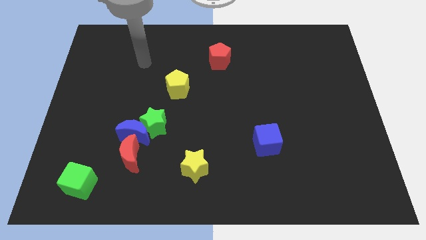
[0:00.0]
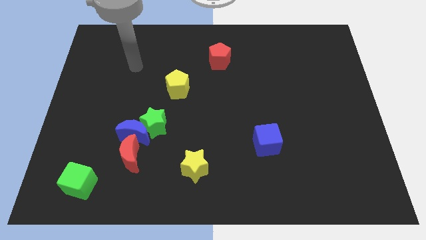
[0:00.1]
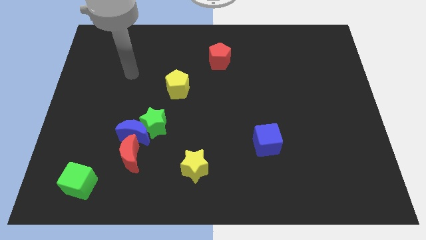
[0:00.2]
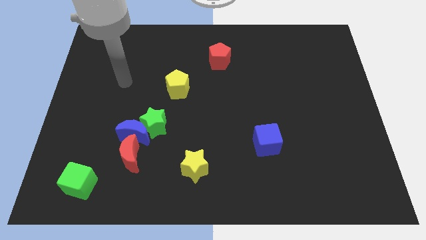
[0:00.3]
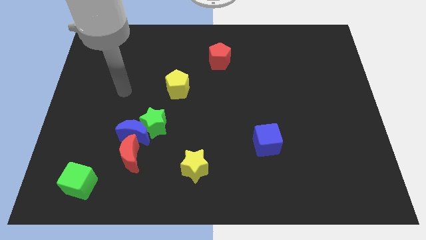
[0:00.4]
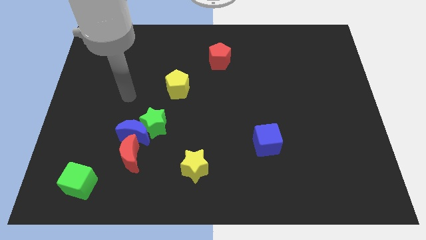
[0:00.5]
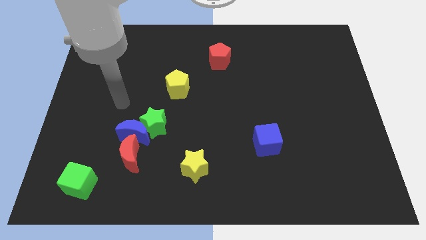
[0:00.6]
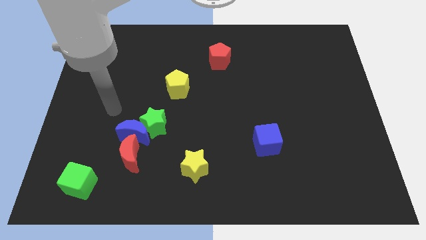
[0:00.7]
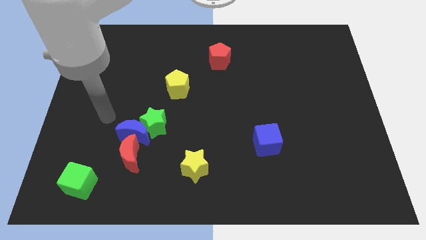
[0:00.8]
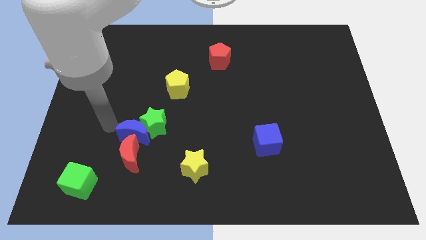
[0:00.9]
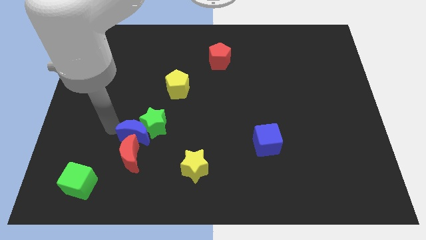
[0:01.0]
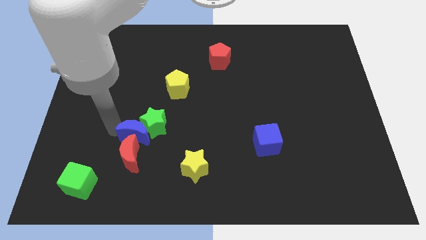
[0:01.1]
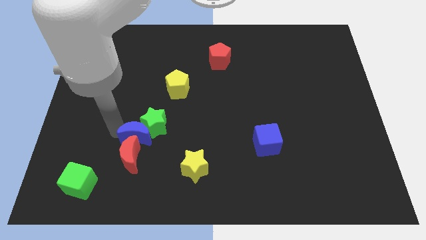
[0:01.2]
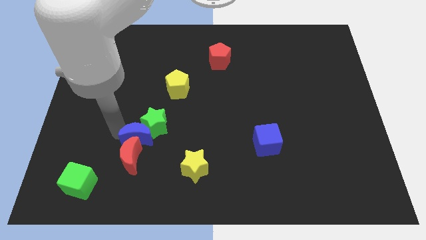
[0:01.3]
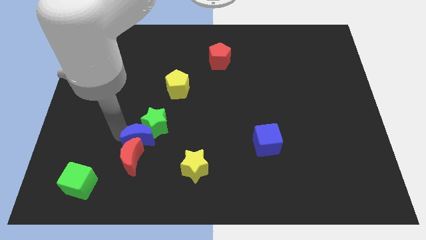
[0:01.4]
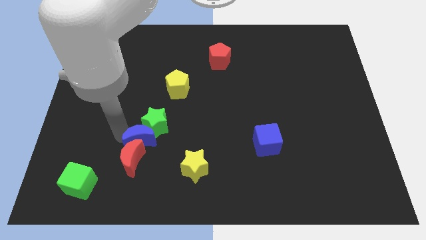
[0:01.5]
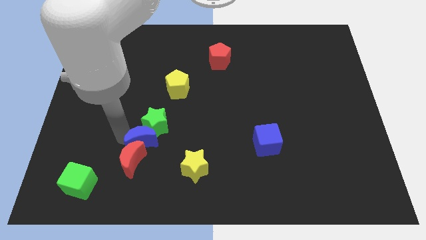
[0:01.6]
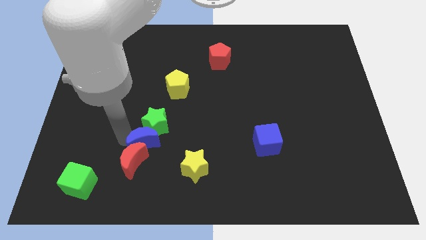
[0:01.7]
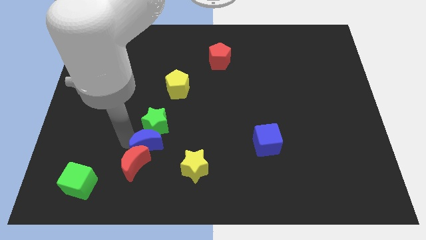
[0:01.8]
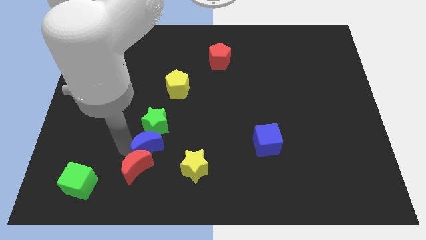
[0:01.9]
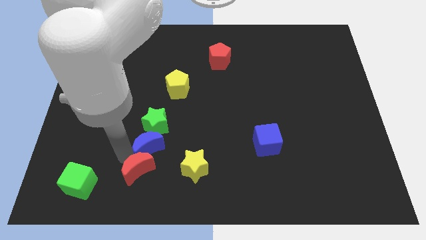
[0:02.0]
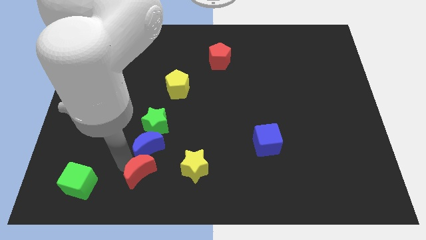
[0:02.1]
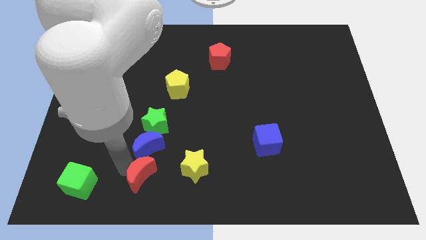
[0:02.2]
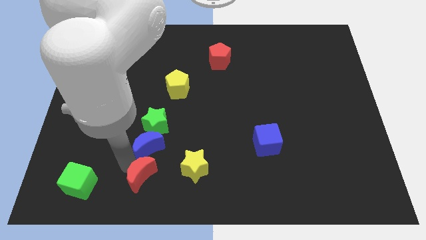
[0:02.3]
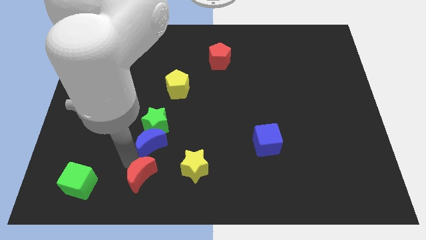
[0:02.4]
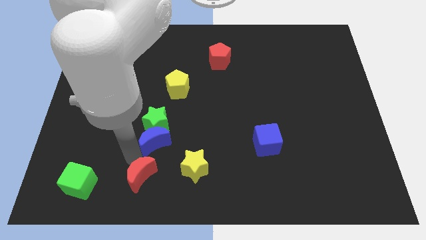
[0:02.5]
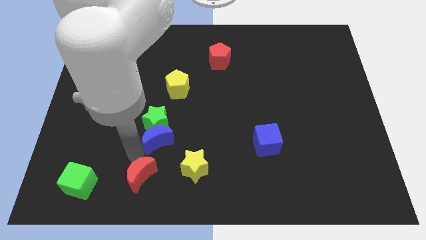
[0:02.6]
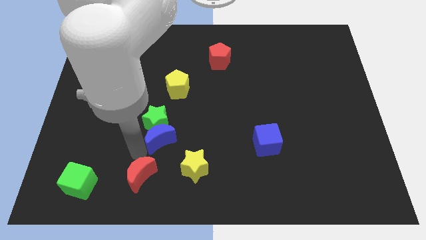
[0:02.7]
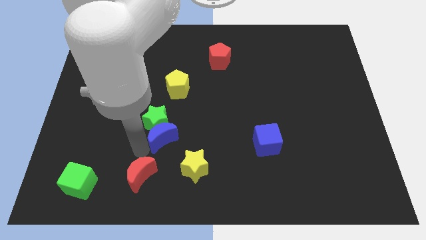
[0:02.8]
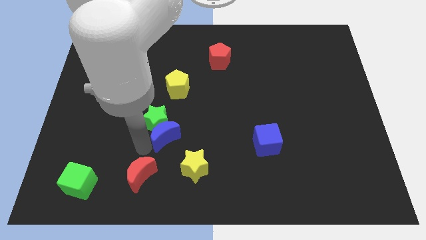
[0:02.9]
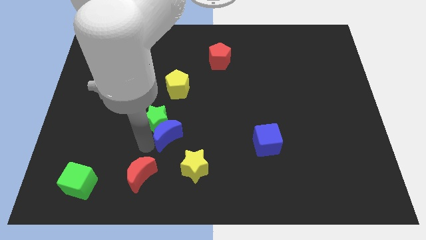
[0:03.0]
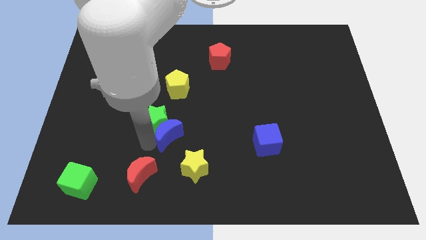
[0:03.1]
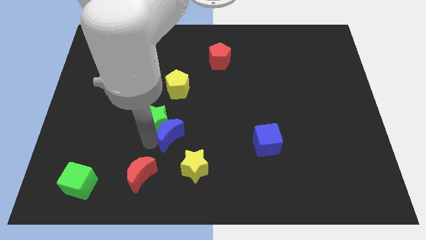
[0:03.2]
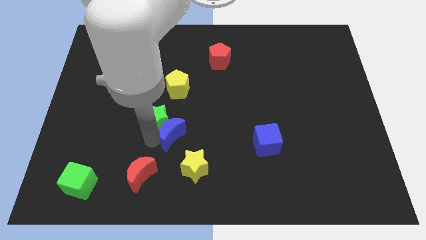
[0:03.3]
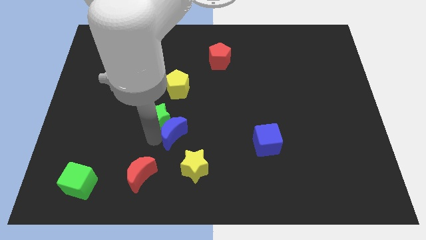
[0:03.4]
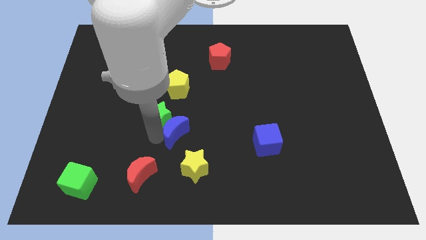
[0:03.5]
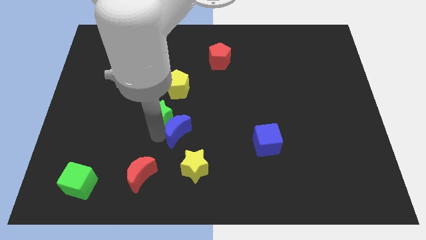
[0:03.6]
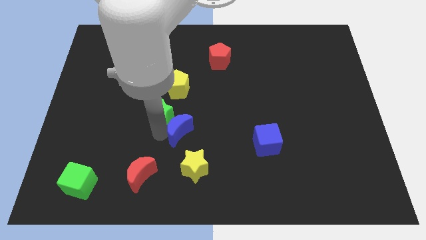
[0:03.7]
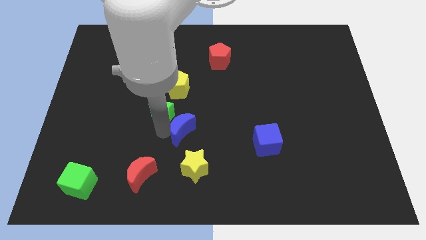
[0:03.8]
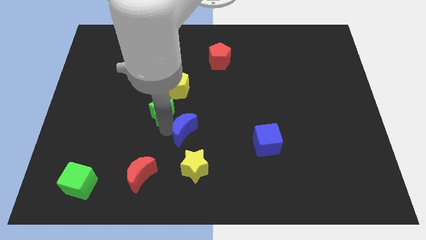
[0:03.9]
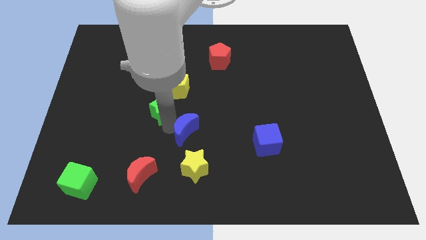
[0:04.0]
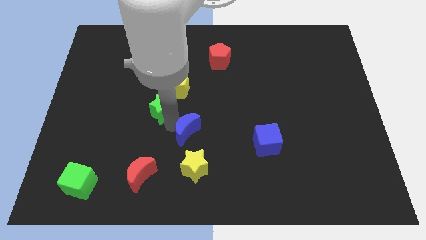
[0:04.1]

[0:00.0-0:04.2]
push the blue moon a little bit up and to the right

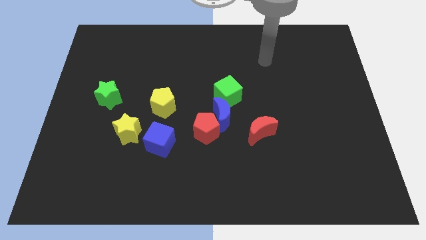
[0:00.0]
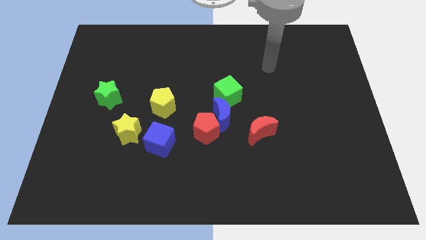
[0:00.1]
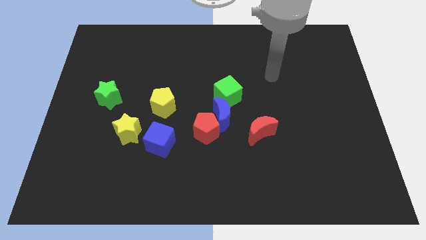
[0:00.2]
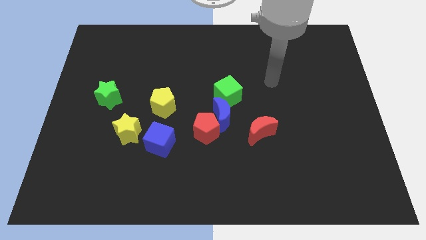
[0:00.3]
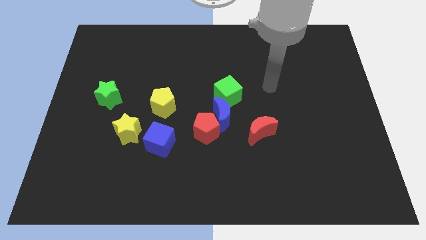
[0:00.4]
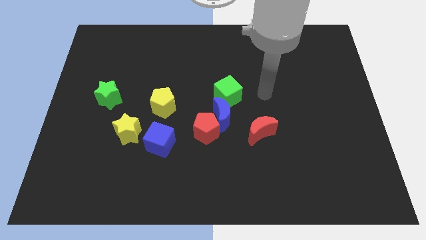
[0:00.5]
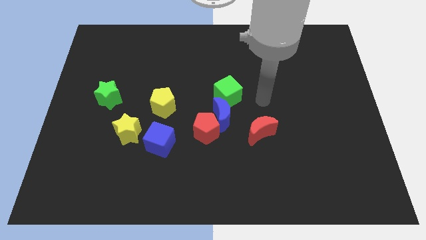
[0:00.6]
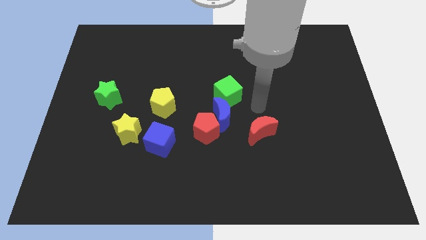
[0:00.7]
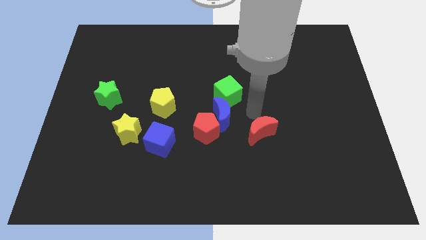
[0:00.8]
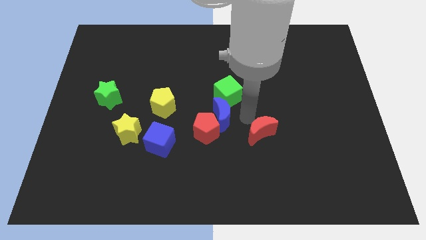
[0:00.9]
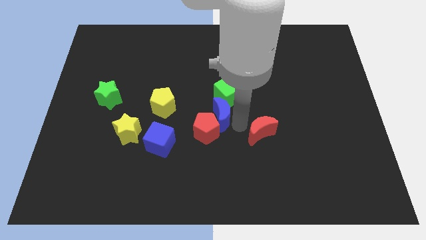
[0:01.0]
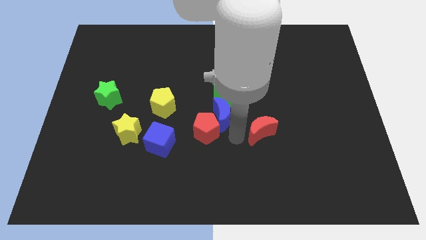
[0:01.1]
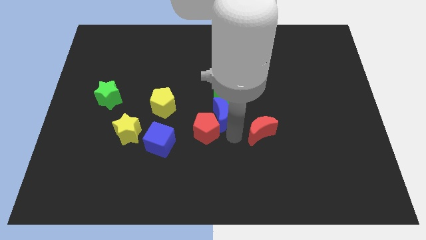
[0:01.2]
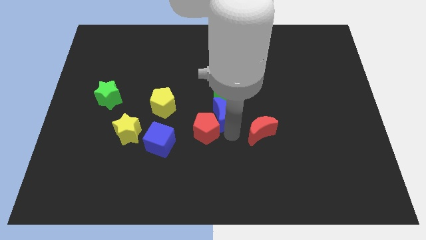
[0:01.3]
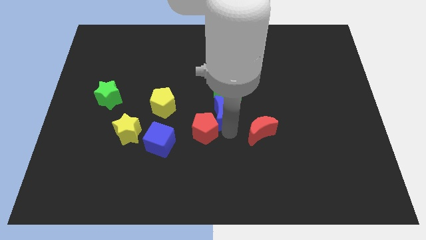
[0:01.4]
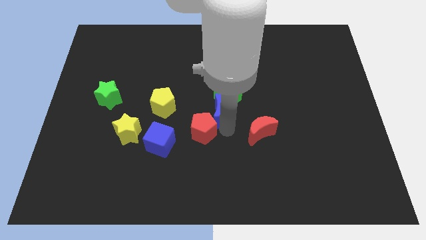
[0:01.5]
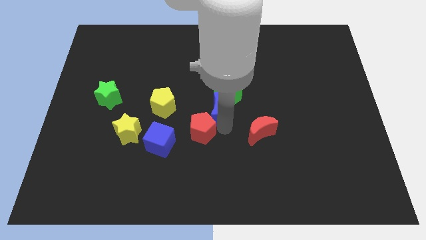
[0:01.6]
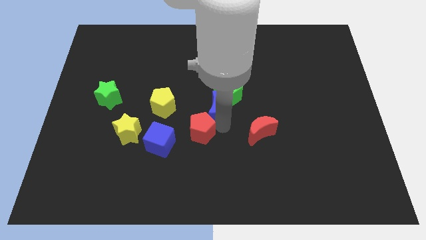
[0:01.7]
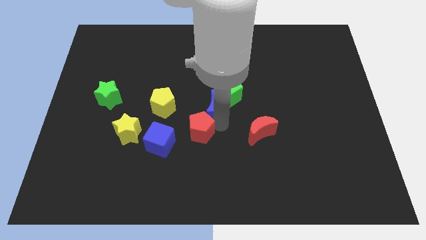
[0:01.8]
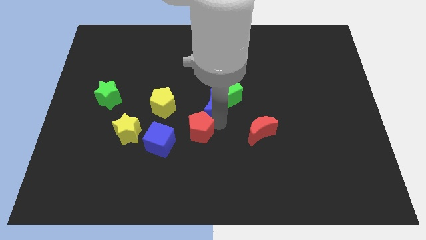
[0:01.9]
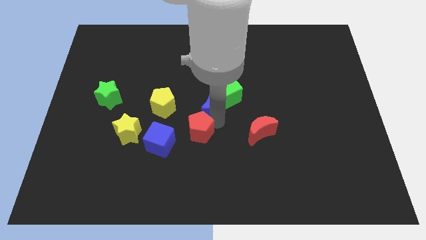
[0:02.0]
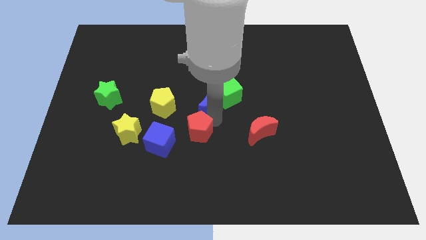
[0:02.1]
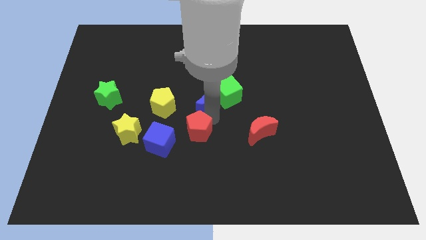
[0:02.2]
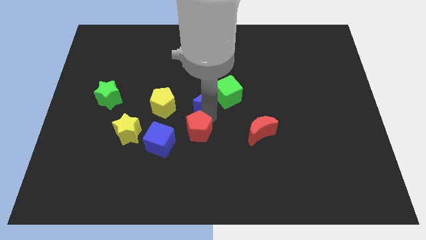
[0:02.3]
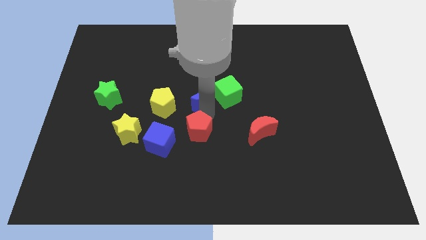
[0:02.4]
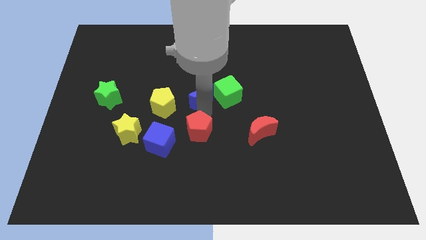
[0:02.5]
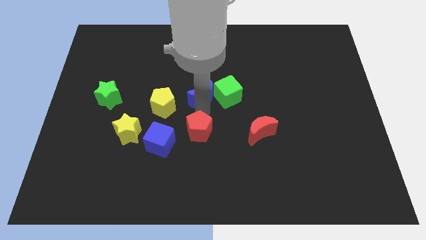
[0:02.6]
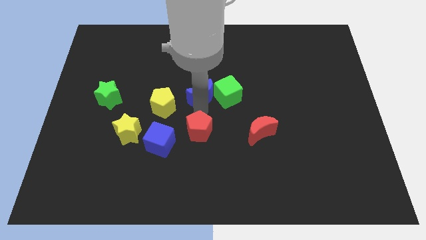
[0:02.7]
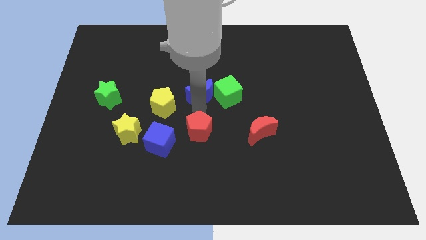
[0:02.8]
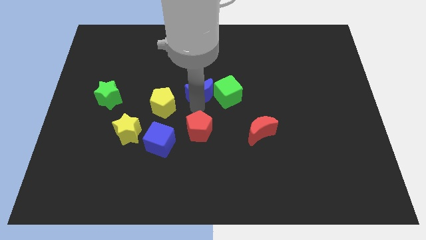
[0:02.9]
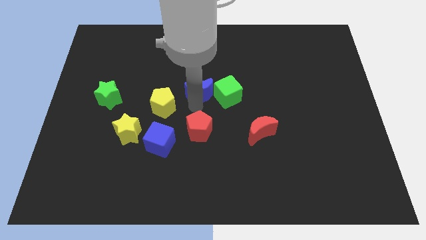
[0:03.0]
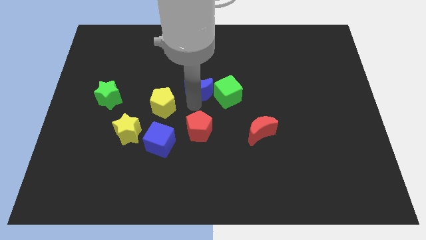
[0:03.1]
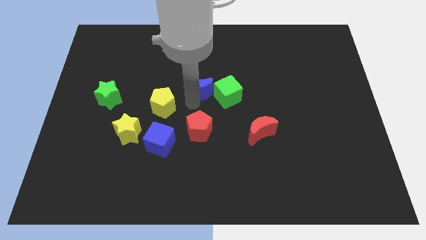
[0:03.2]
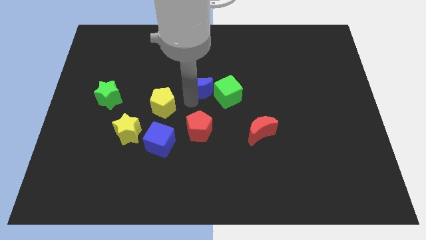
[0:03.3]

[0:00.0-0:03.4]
move the blue moon somewhat up

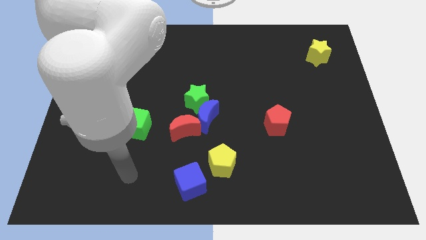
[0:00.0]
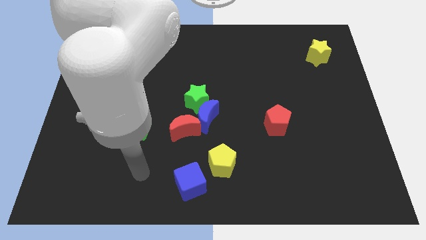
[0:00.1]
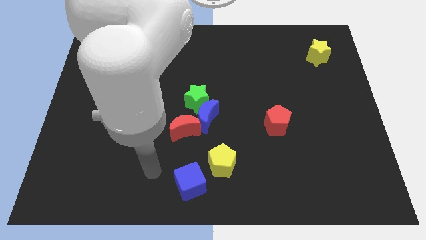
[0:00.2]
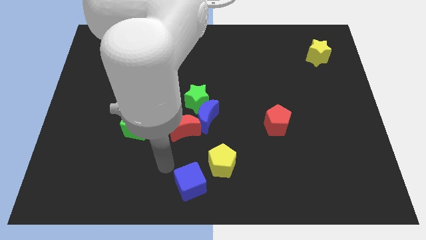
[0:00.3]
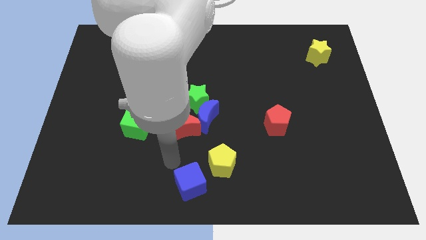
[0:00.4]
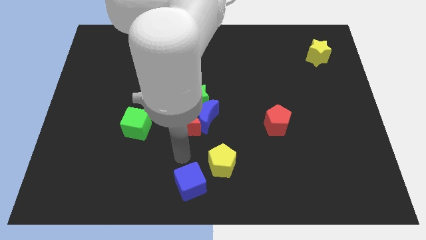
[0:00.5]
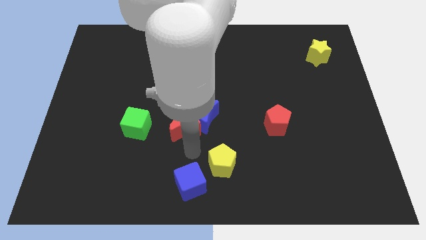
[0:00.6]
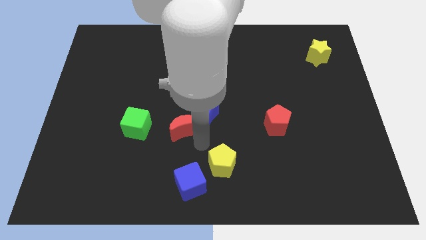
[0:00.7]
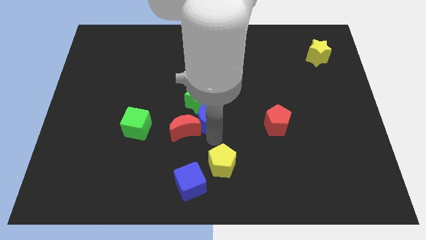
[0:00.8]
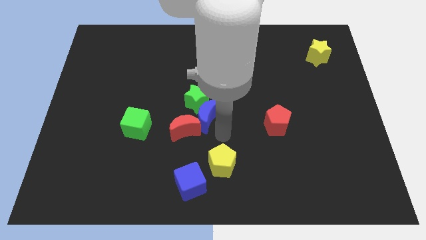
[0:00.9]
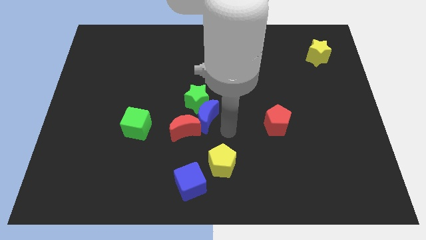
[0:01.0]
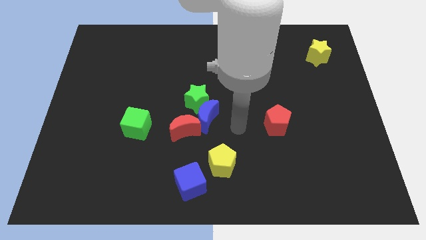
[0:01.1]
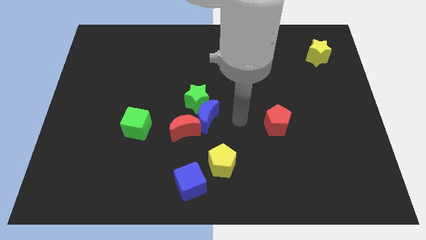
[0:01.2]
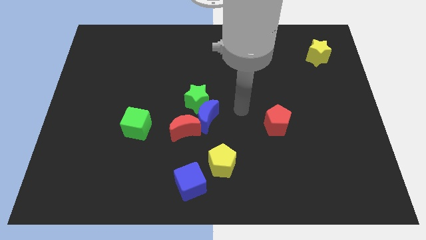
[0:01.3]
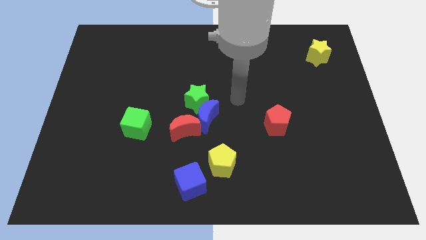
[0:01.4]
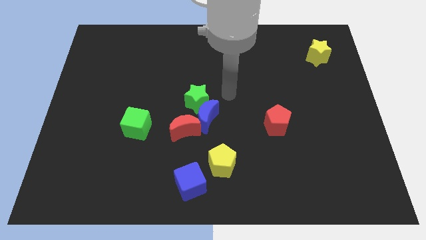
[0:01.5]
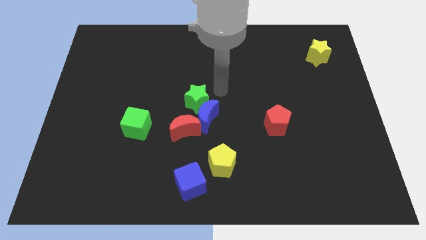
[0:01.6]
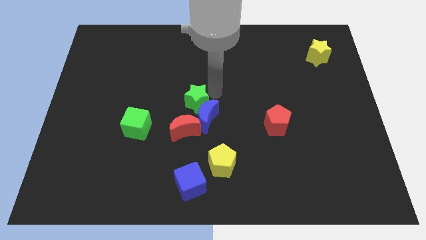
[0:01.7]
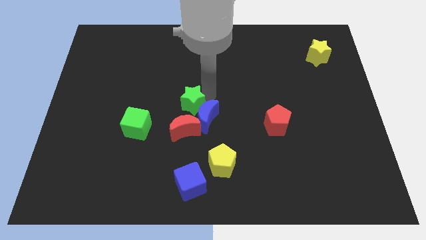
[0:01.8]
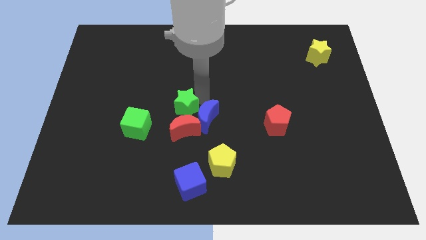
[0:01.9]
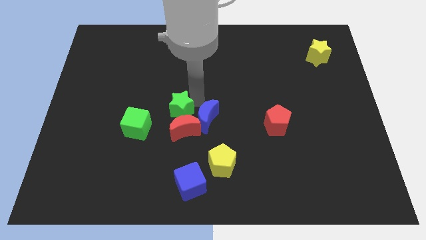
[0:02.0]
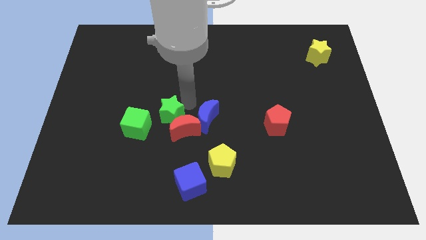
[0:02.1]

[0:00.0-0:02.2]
slide the green star slightly down and to the left
